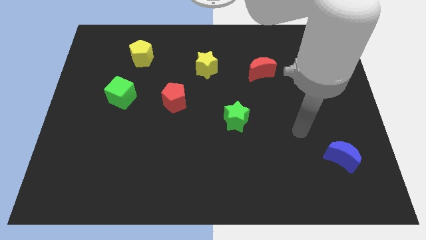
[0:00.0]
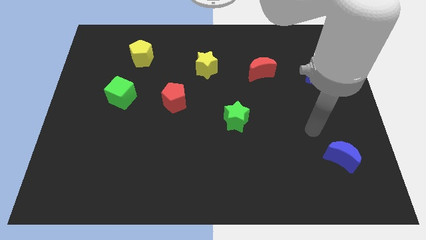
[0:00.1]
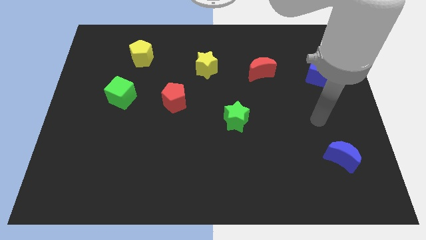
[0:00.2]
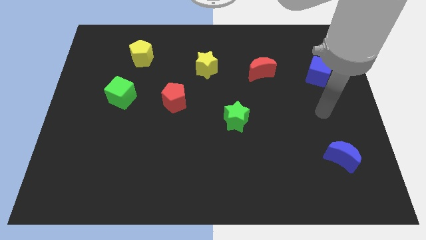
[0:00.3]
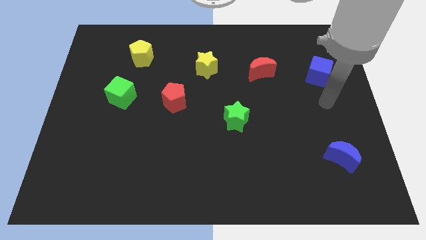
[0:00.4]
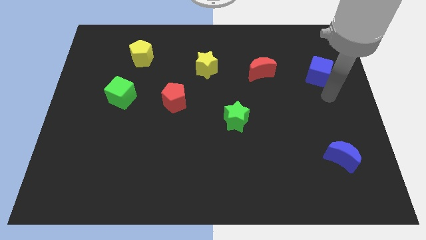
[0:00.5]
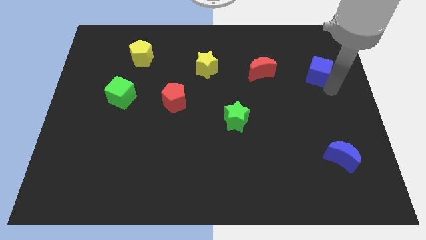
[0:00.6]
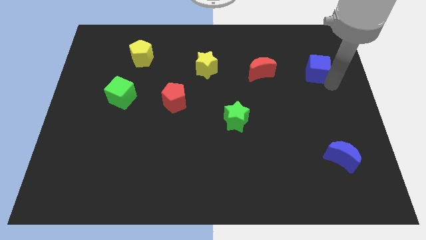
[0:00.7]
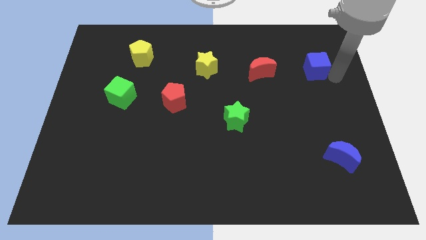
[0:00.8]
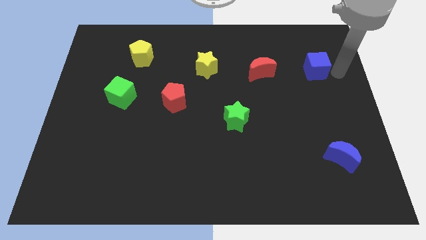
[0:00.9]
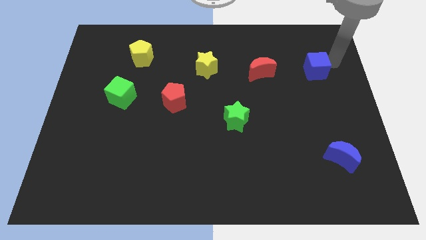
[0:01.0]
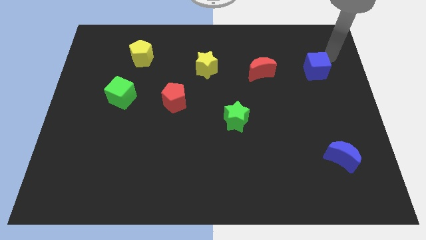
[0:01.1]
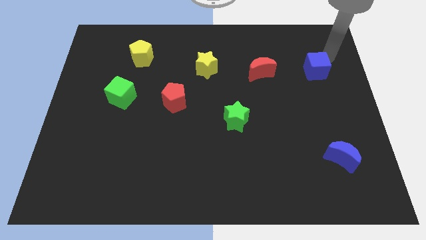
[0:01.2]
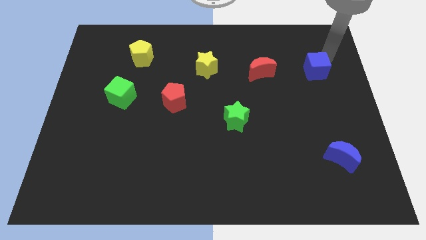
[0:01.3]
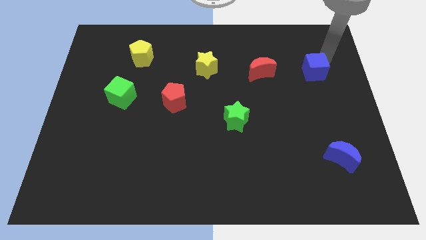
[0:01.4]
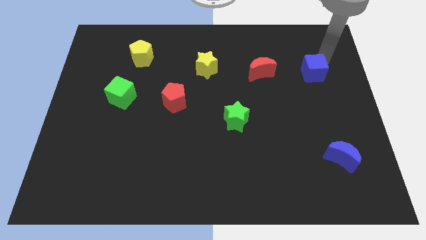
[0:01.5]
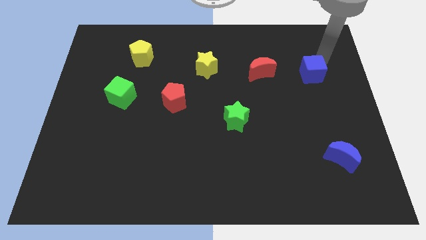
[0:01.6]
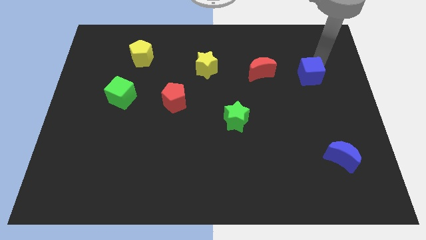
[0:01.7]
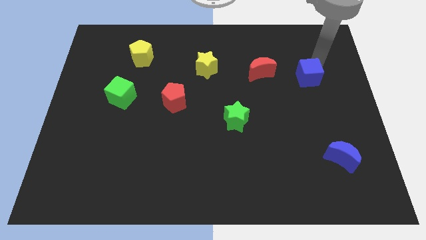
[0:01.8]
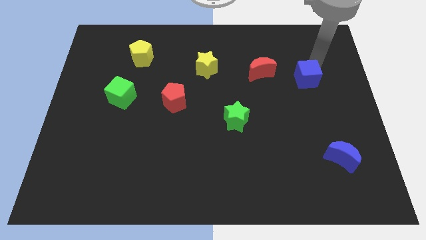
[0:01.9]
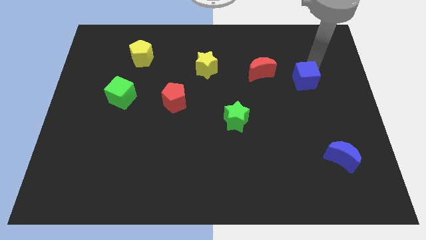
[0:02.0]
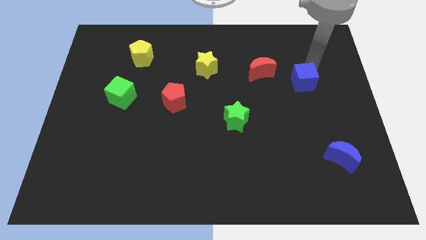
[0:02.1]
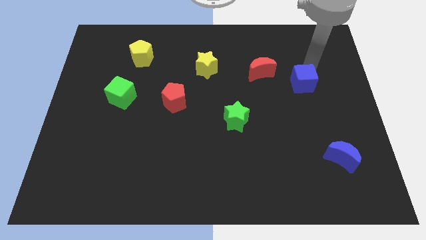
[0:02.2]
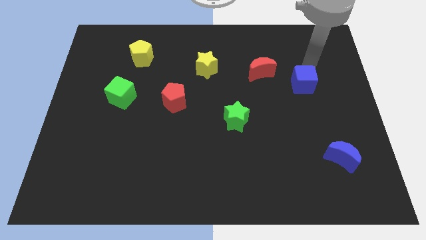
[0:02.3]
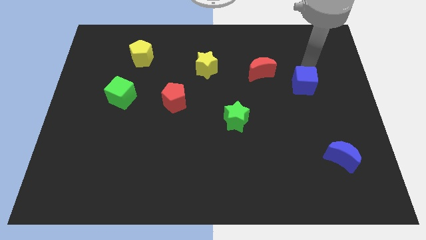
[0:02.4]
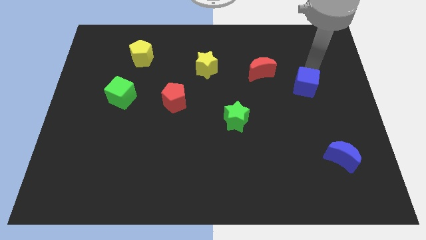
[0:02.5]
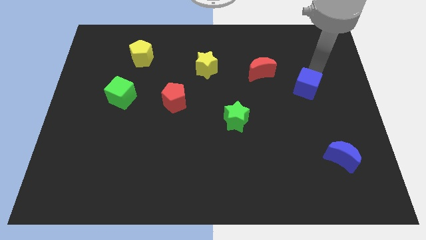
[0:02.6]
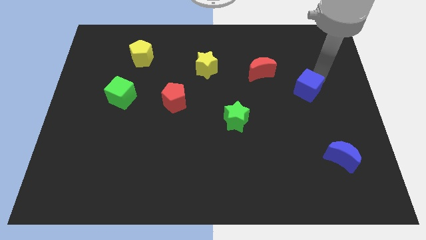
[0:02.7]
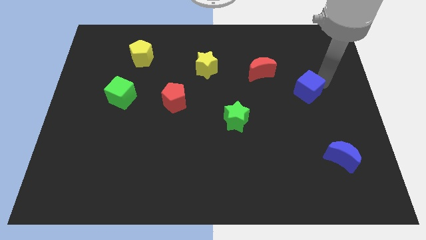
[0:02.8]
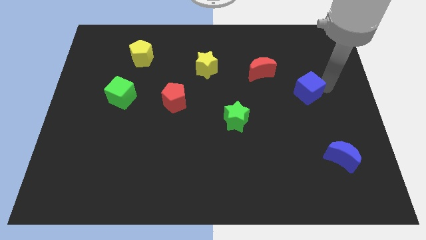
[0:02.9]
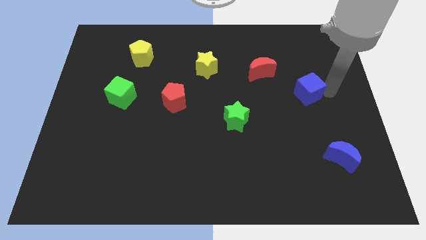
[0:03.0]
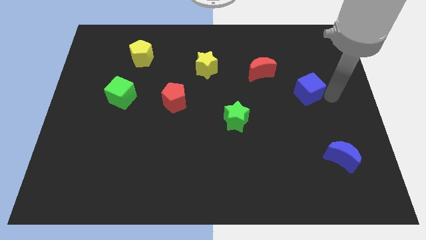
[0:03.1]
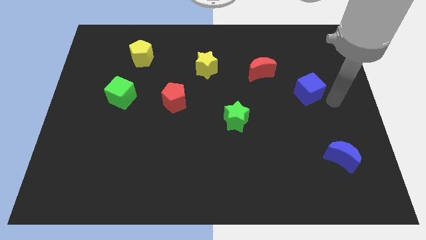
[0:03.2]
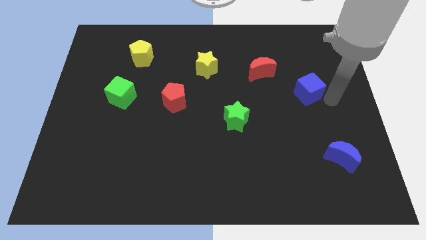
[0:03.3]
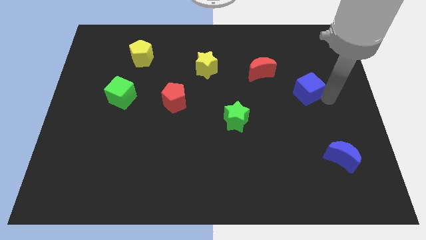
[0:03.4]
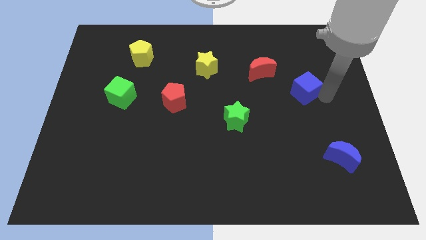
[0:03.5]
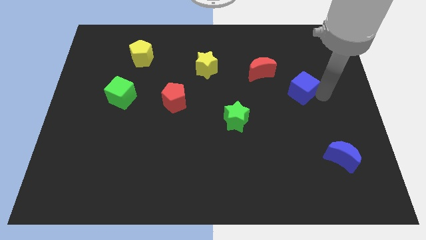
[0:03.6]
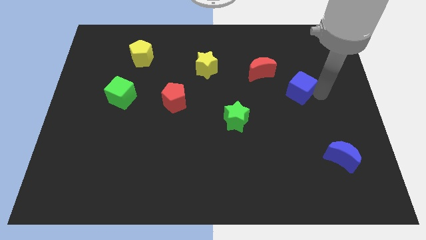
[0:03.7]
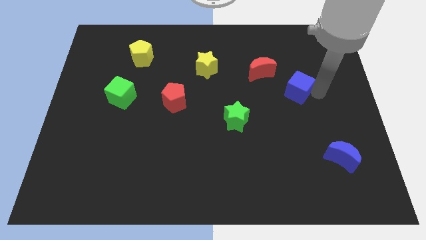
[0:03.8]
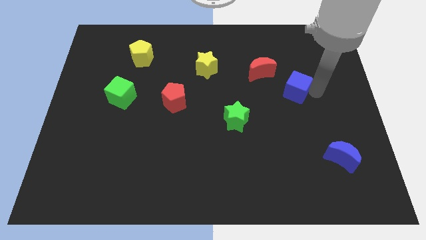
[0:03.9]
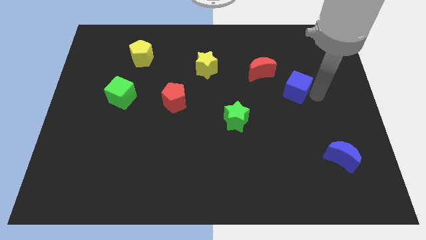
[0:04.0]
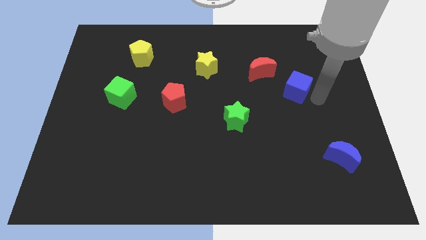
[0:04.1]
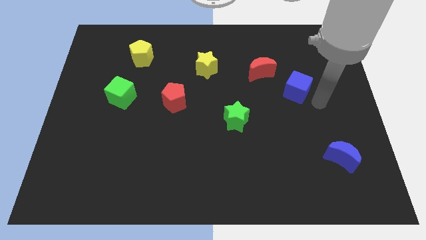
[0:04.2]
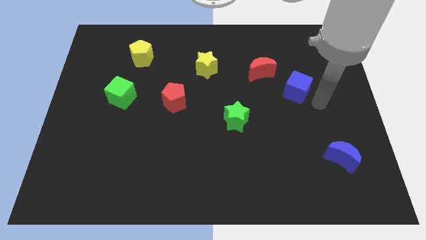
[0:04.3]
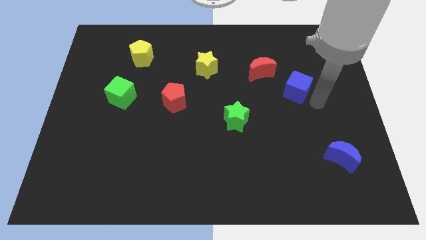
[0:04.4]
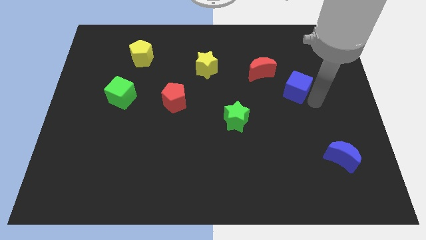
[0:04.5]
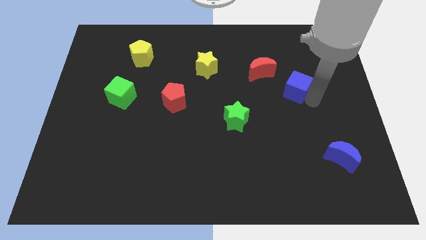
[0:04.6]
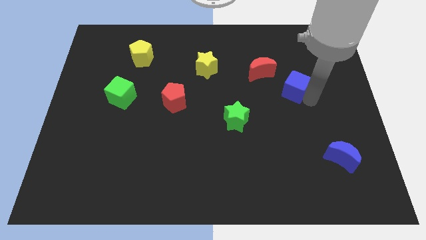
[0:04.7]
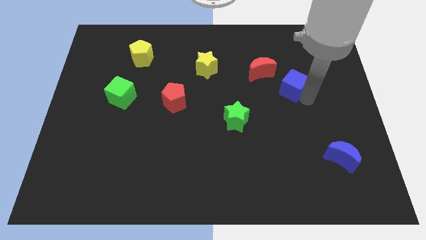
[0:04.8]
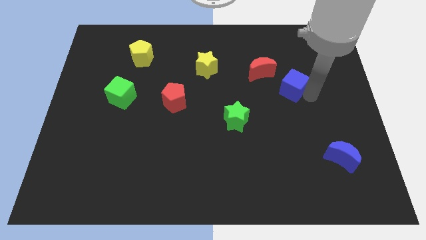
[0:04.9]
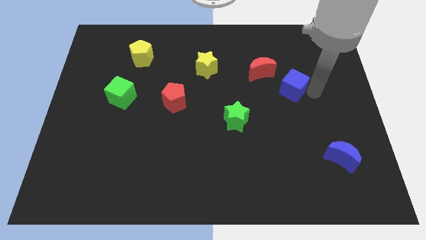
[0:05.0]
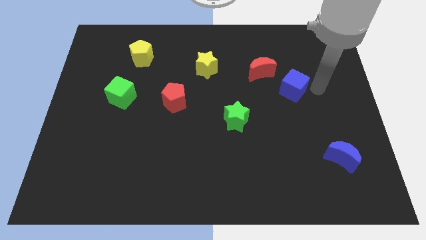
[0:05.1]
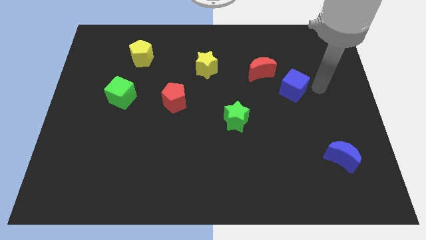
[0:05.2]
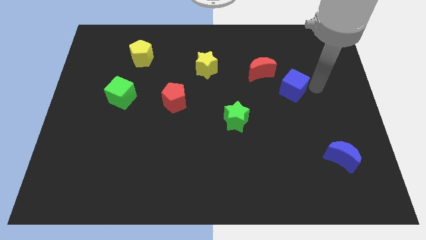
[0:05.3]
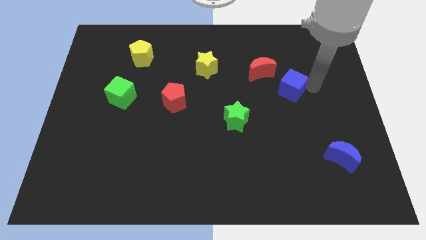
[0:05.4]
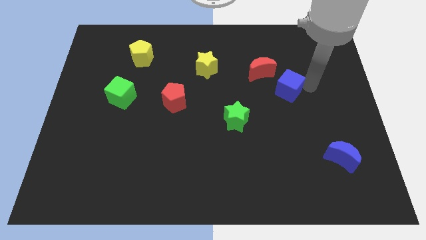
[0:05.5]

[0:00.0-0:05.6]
push the blue cube left a little

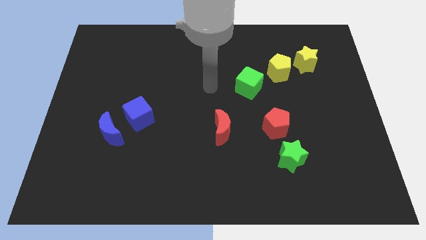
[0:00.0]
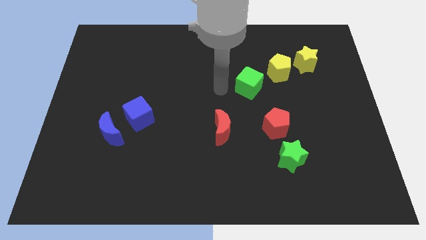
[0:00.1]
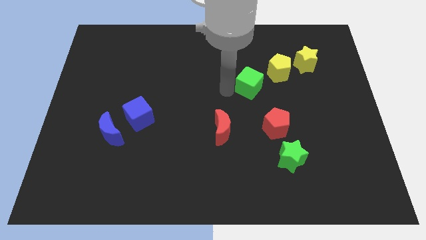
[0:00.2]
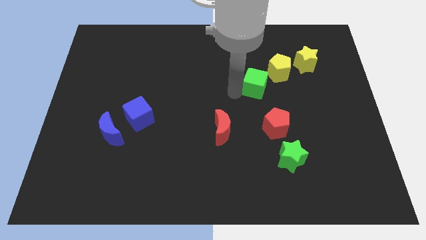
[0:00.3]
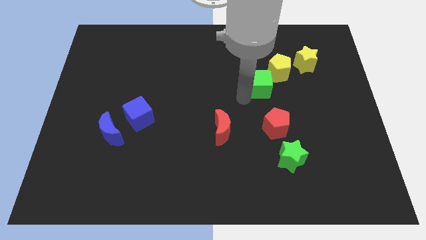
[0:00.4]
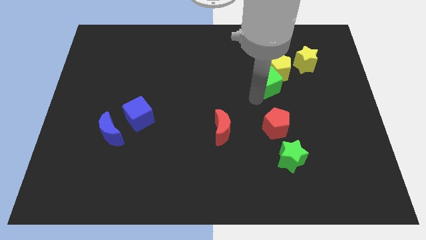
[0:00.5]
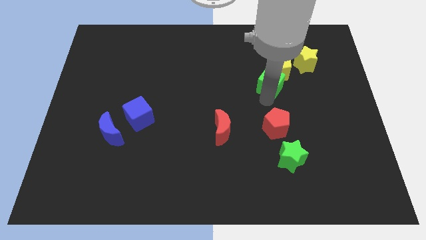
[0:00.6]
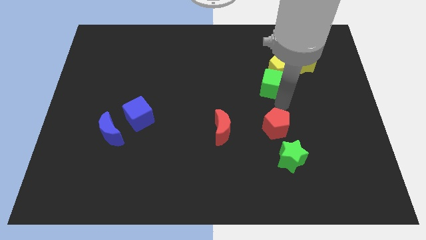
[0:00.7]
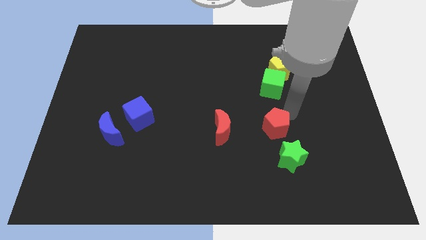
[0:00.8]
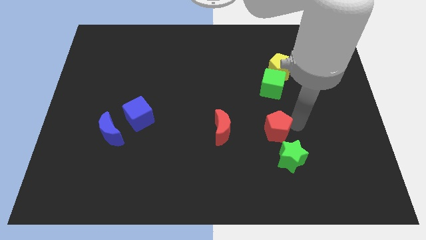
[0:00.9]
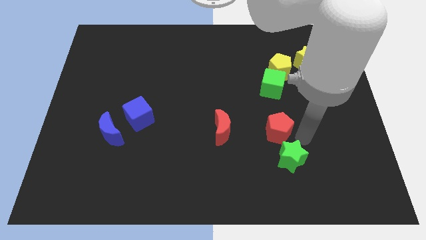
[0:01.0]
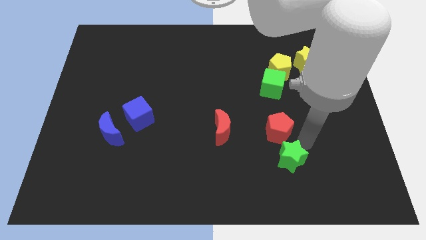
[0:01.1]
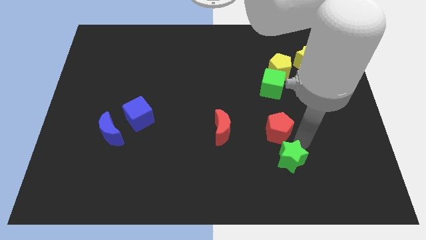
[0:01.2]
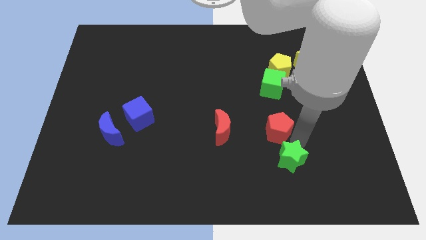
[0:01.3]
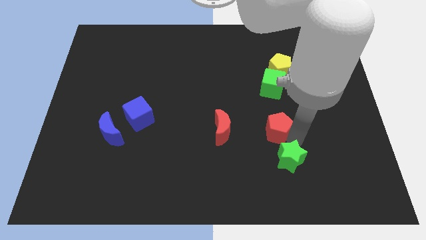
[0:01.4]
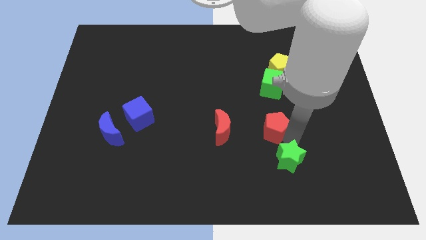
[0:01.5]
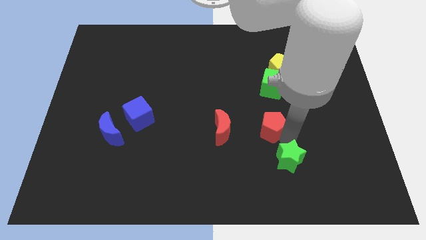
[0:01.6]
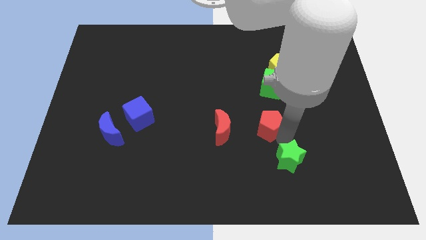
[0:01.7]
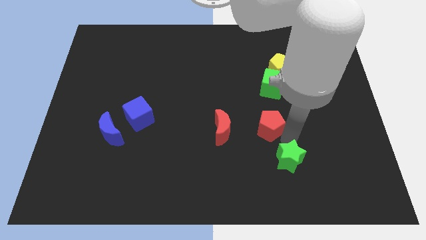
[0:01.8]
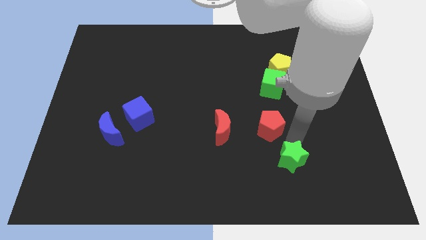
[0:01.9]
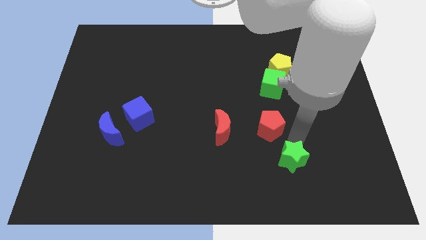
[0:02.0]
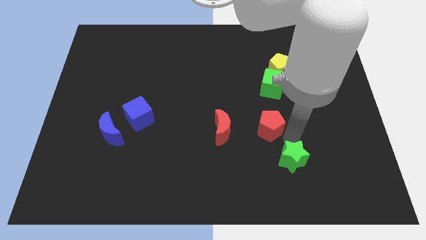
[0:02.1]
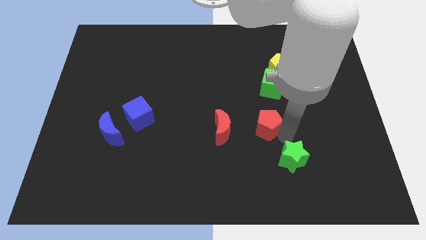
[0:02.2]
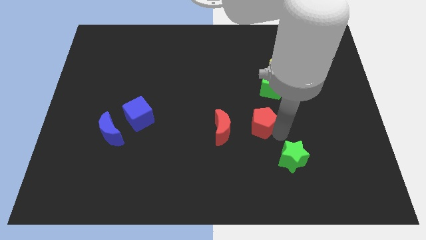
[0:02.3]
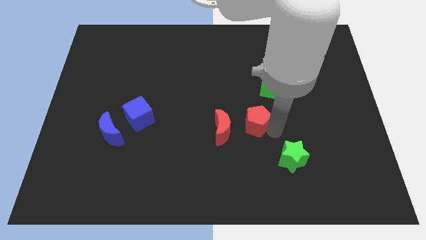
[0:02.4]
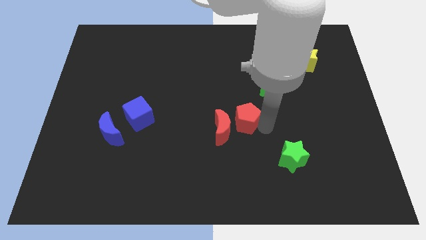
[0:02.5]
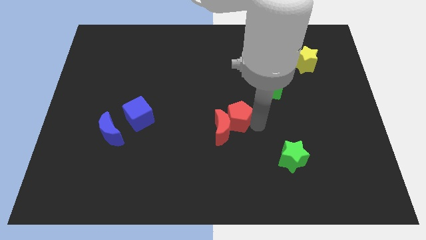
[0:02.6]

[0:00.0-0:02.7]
push the red pentagon somewhat to the left
